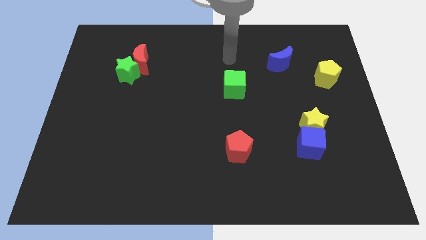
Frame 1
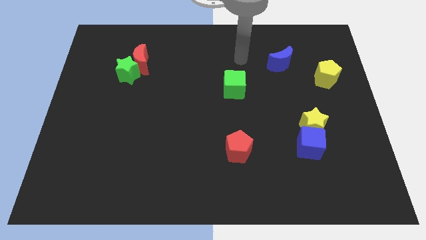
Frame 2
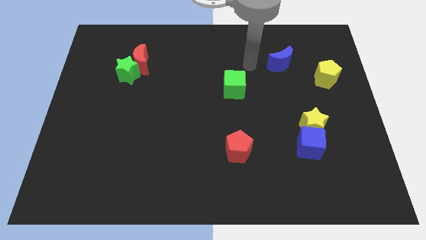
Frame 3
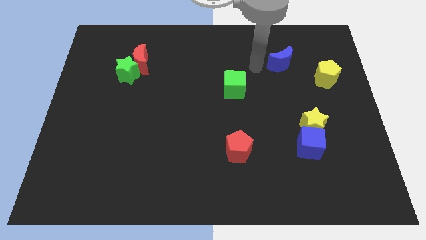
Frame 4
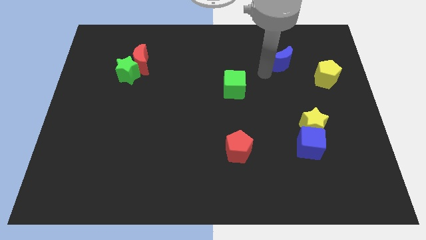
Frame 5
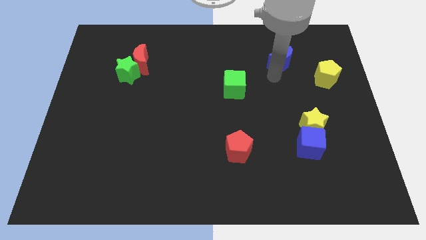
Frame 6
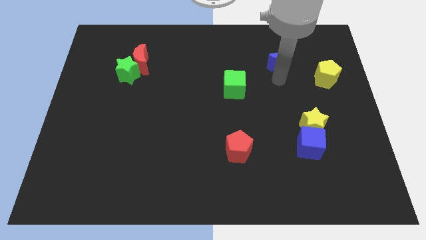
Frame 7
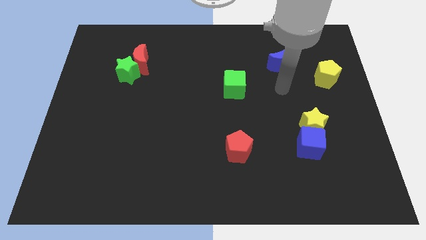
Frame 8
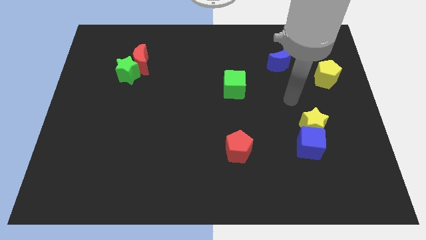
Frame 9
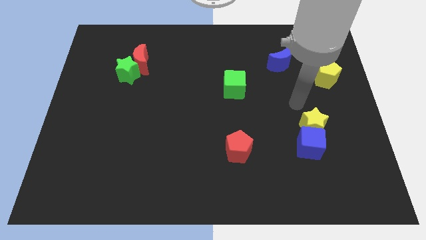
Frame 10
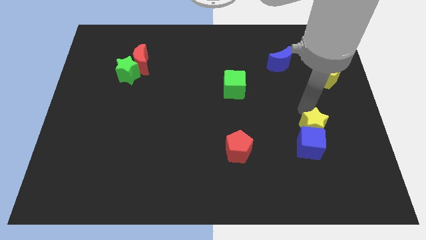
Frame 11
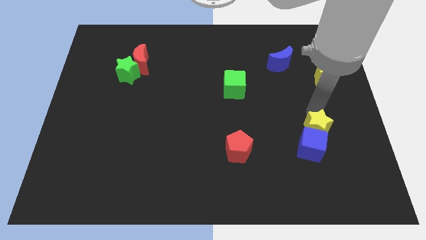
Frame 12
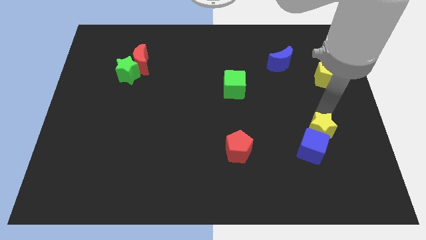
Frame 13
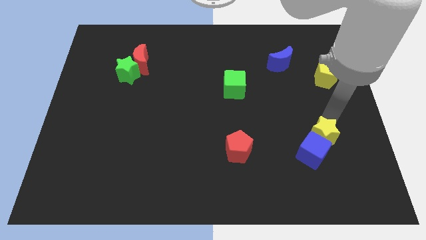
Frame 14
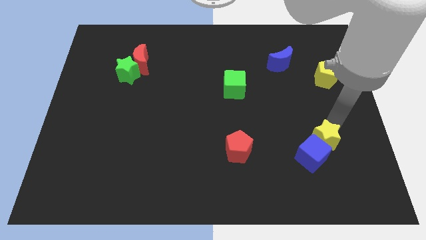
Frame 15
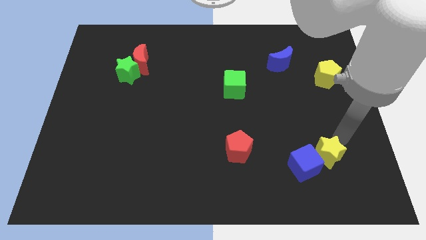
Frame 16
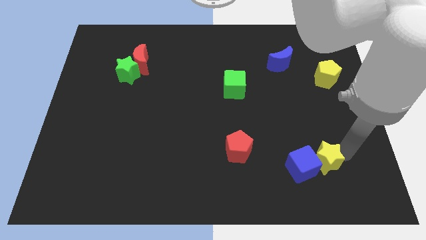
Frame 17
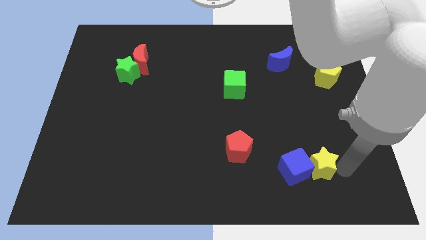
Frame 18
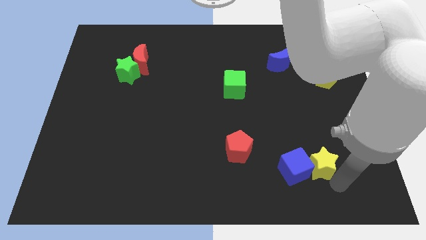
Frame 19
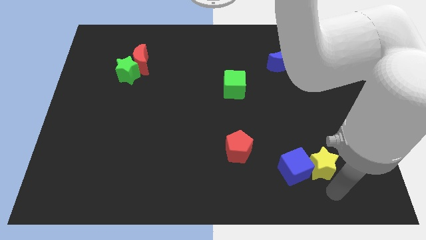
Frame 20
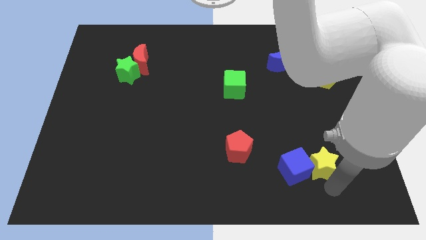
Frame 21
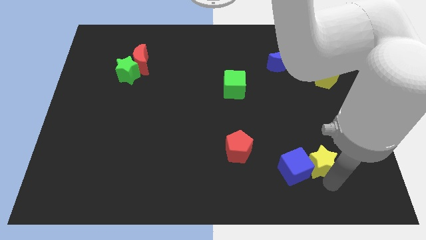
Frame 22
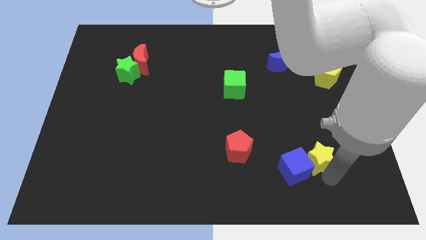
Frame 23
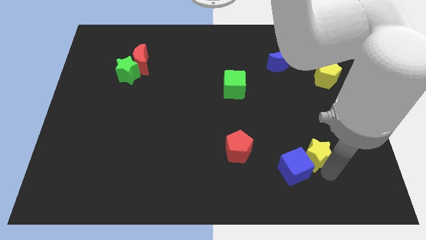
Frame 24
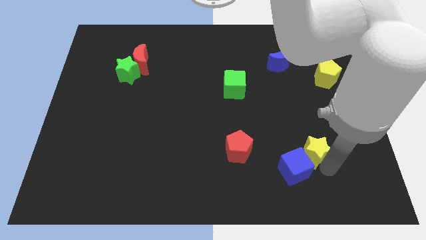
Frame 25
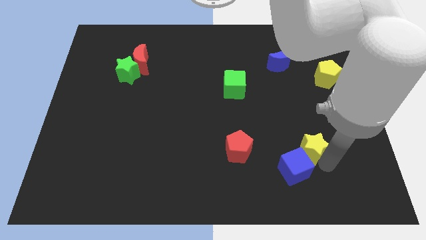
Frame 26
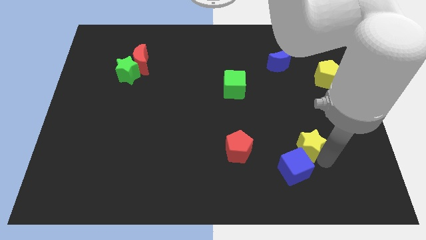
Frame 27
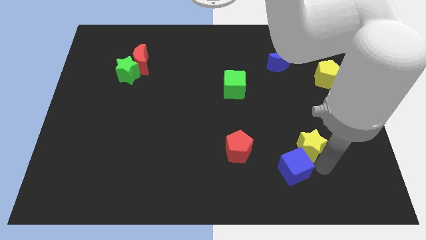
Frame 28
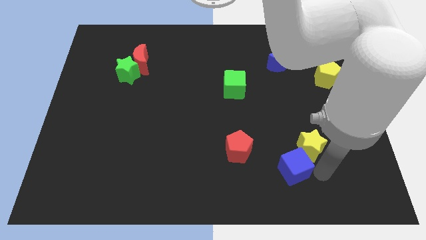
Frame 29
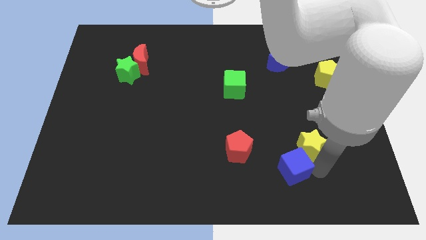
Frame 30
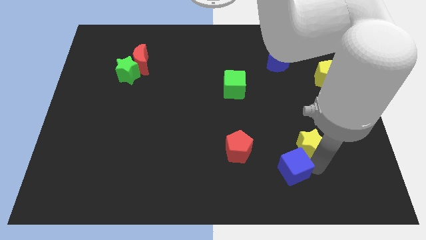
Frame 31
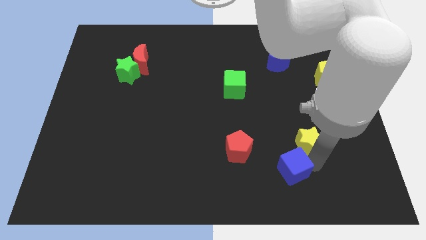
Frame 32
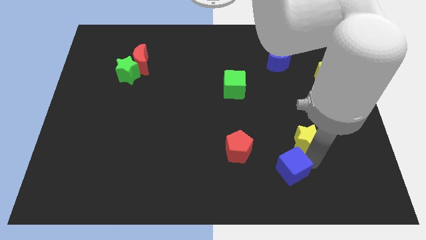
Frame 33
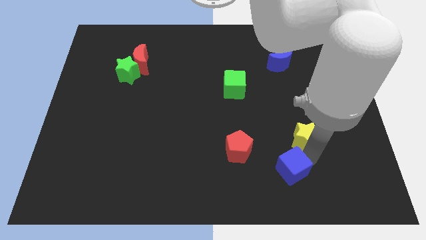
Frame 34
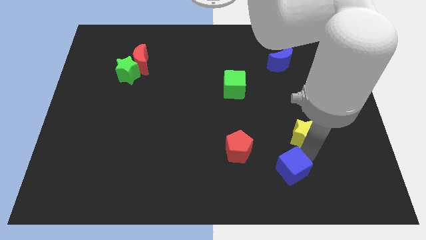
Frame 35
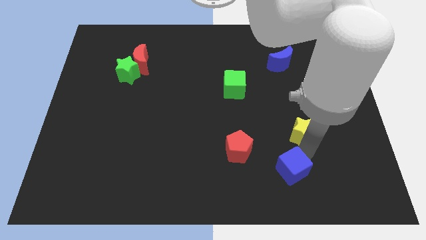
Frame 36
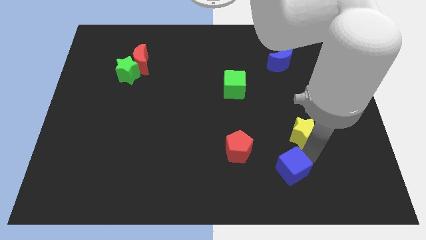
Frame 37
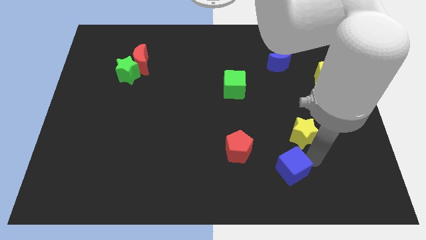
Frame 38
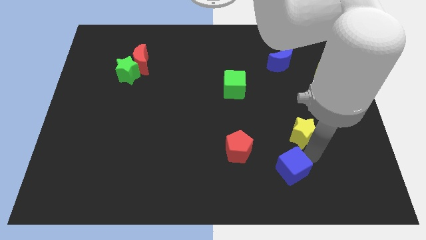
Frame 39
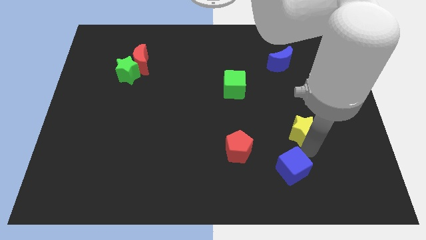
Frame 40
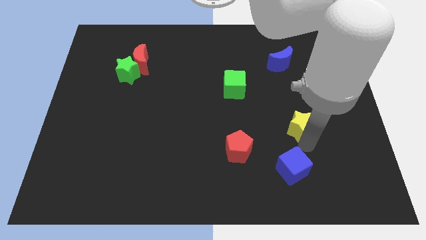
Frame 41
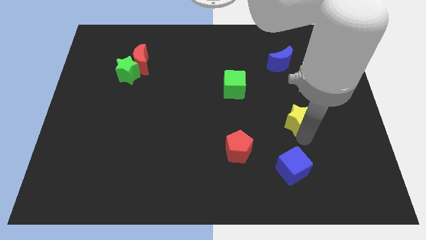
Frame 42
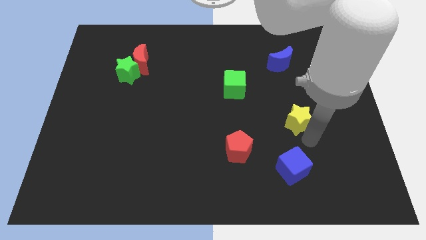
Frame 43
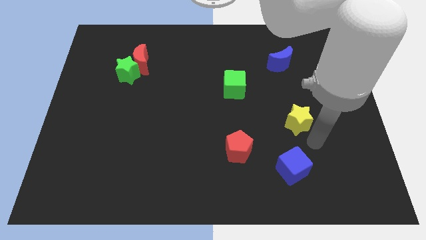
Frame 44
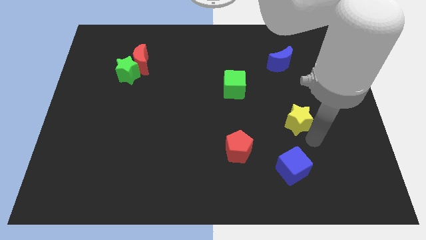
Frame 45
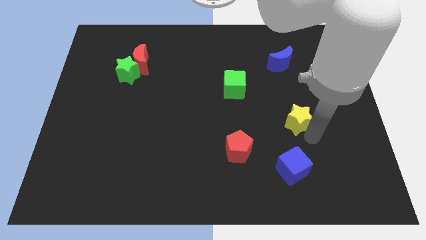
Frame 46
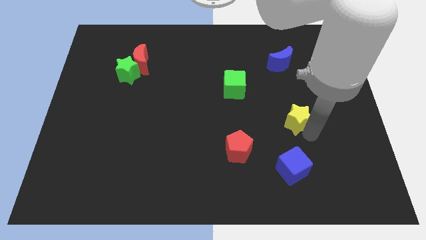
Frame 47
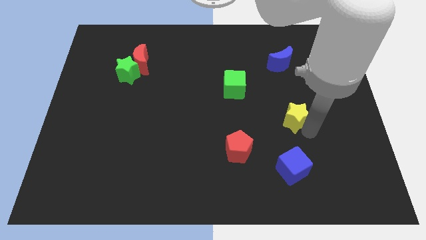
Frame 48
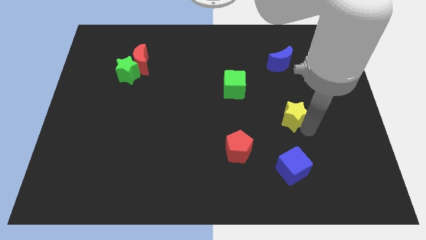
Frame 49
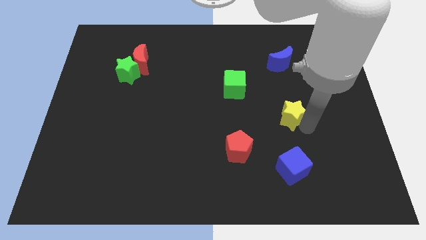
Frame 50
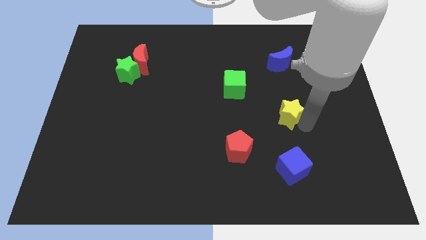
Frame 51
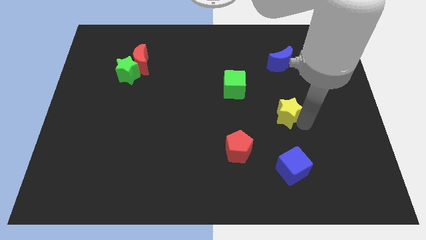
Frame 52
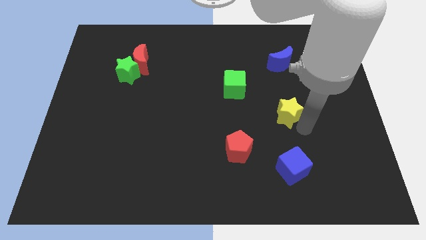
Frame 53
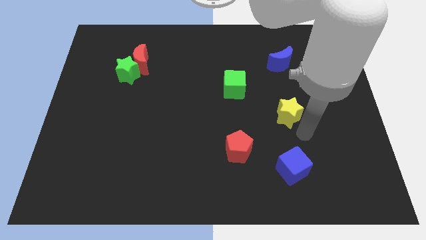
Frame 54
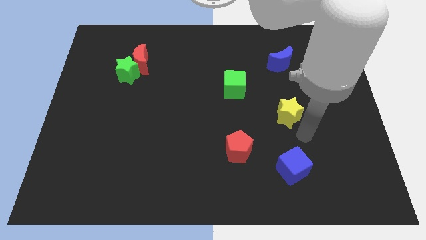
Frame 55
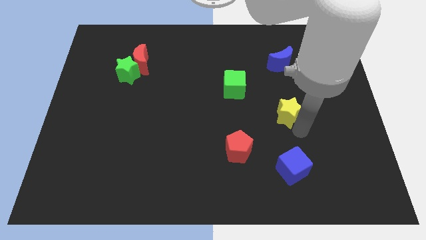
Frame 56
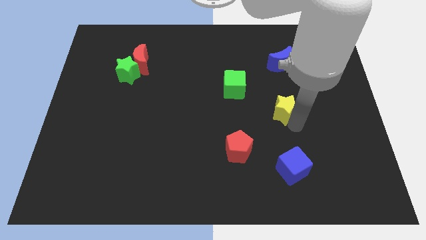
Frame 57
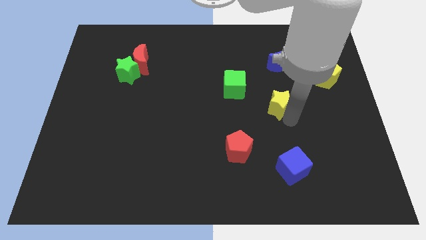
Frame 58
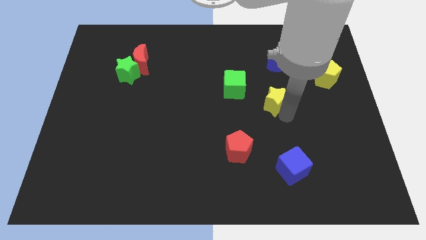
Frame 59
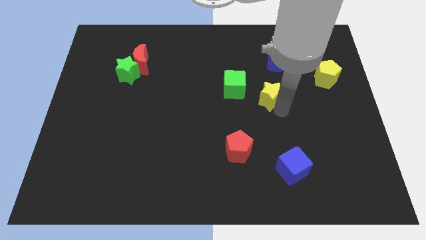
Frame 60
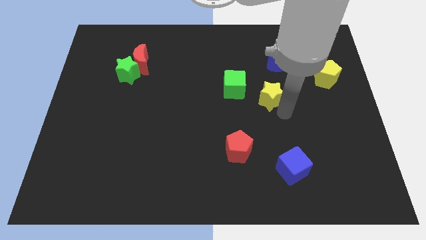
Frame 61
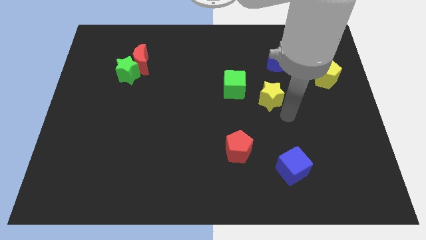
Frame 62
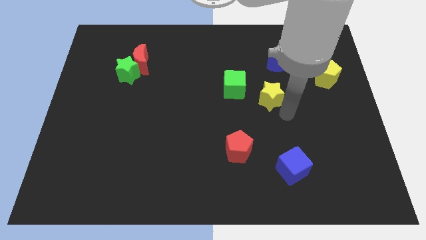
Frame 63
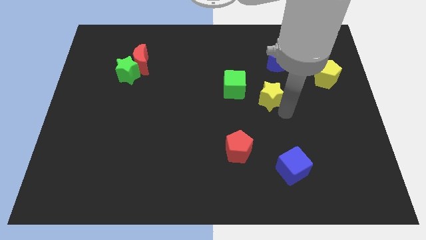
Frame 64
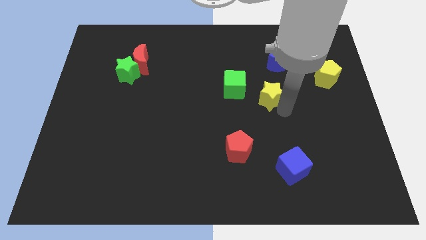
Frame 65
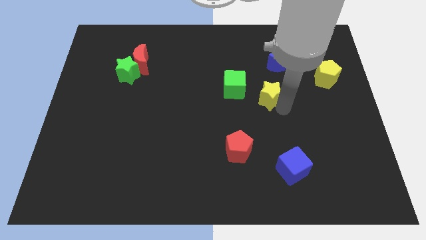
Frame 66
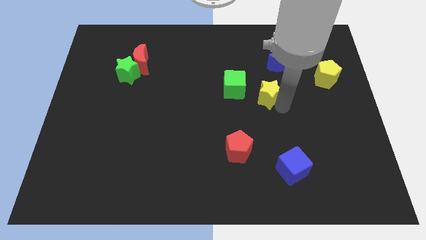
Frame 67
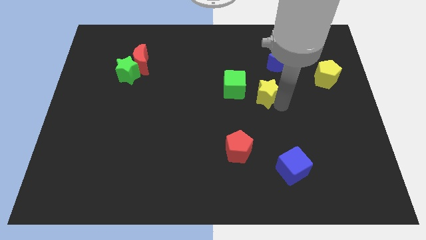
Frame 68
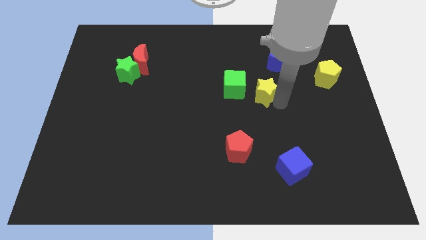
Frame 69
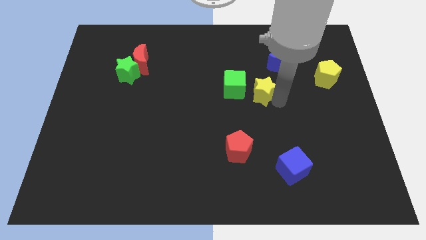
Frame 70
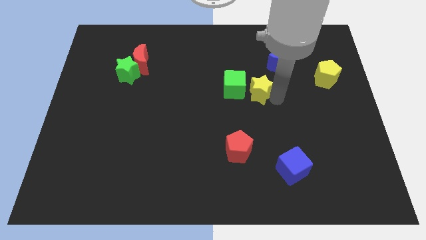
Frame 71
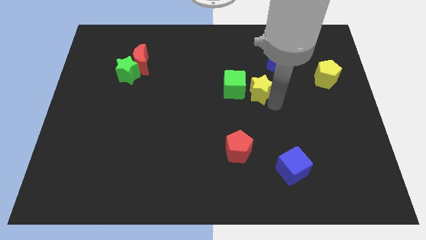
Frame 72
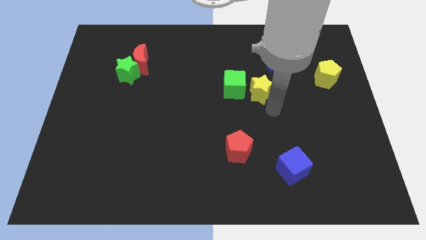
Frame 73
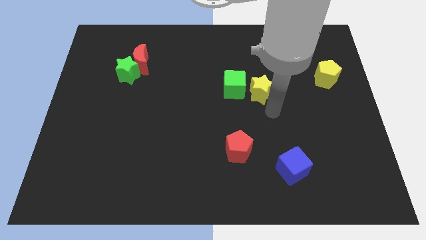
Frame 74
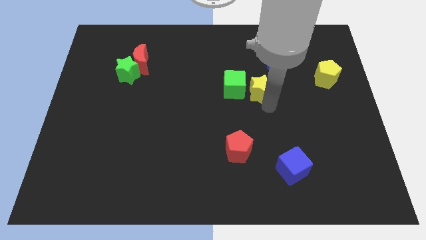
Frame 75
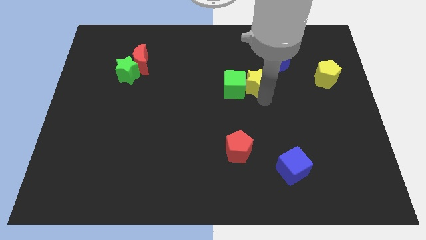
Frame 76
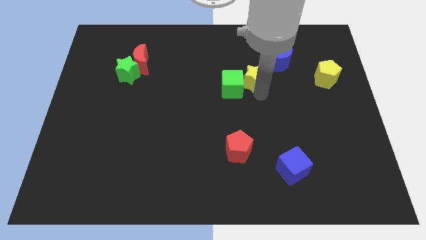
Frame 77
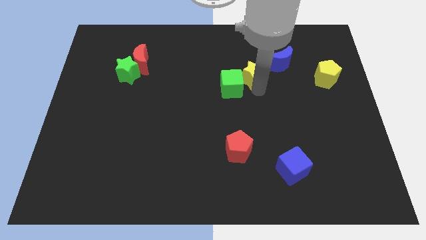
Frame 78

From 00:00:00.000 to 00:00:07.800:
push the yellow star upwards and to the left

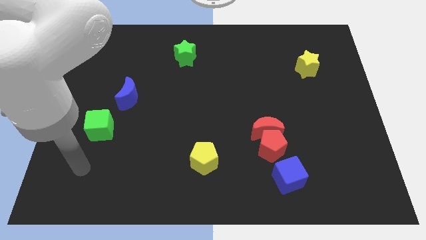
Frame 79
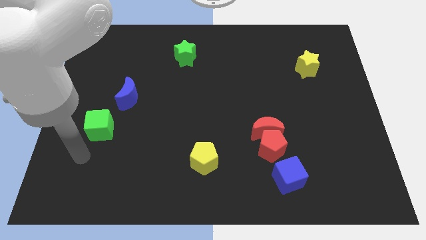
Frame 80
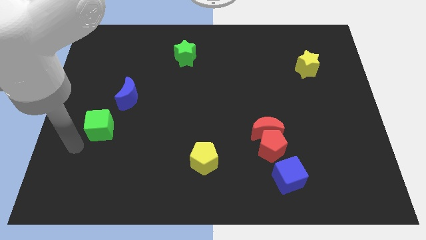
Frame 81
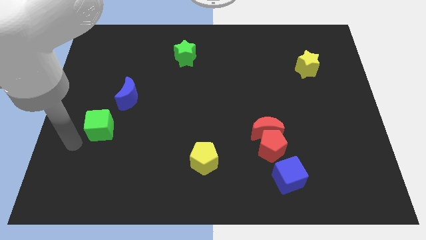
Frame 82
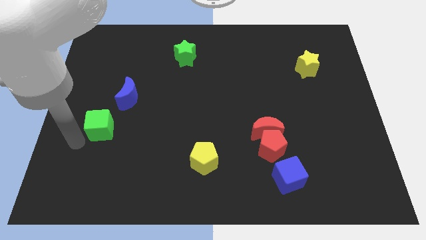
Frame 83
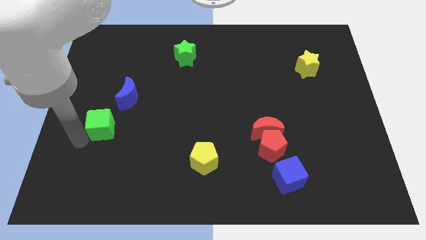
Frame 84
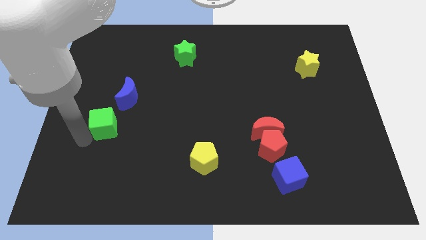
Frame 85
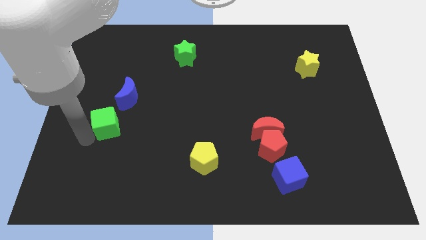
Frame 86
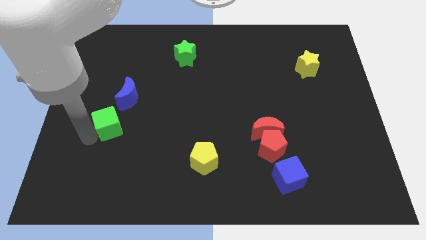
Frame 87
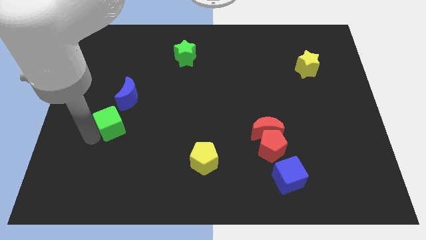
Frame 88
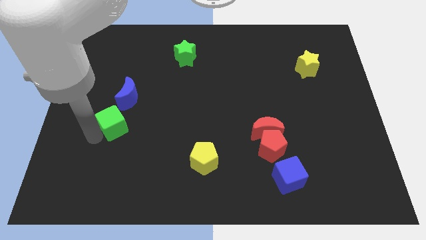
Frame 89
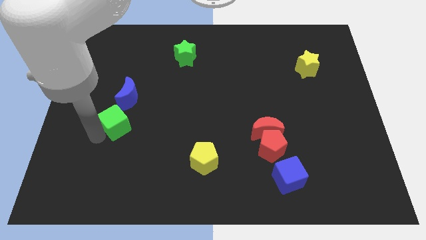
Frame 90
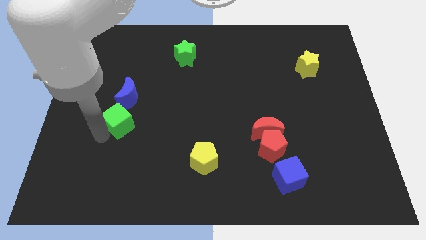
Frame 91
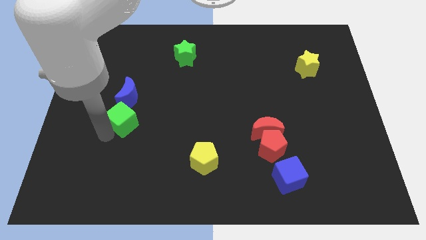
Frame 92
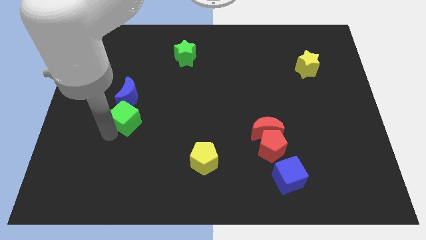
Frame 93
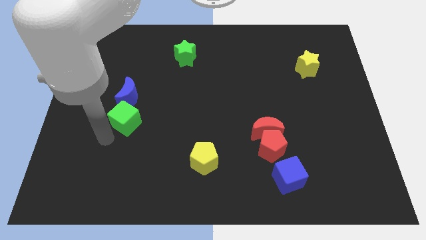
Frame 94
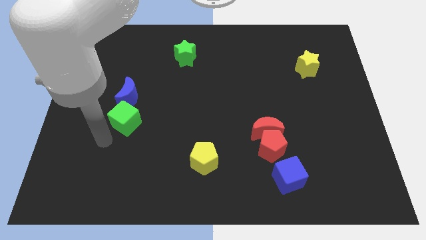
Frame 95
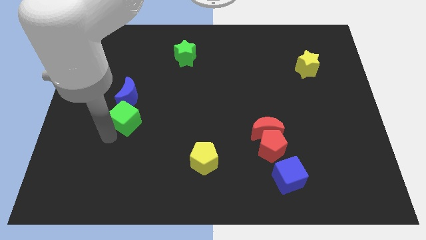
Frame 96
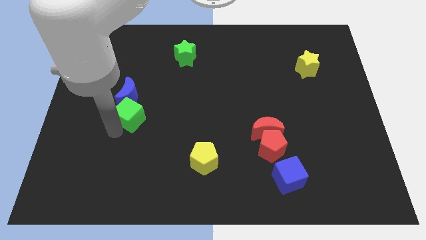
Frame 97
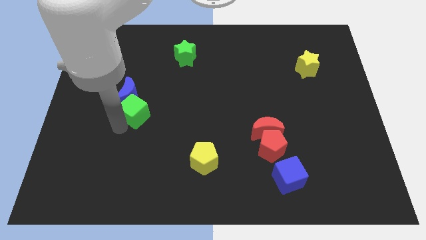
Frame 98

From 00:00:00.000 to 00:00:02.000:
slide the green cube up and then right a little bit
